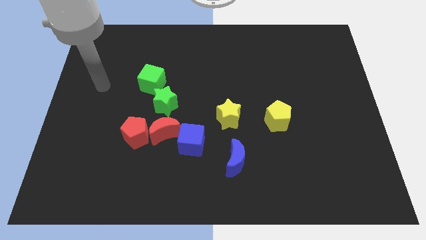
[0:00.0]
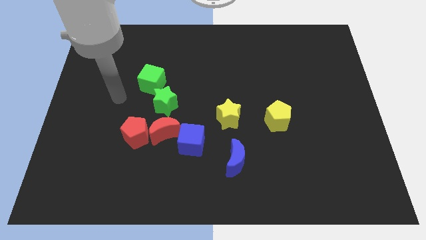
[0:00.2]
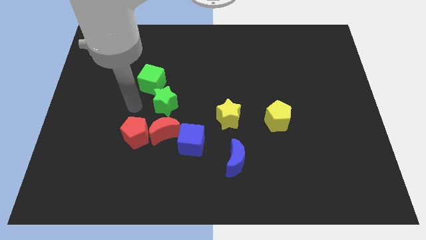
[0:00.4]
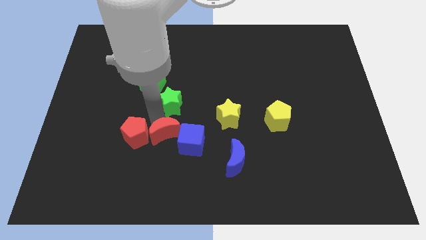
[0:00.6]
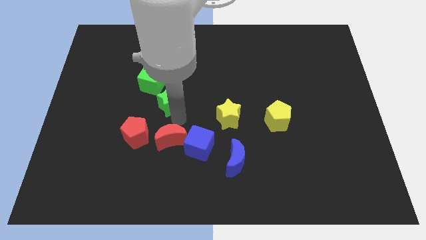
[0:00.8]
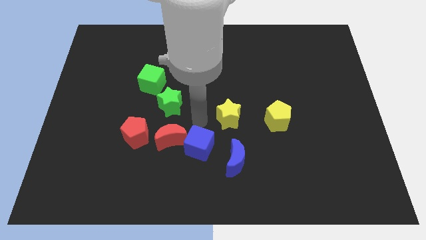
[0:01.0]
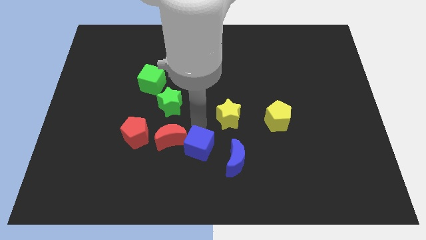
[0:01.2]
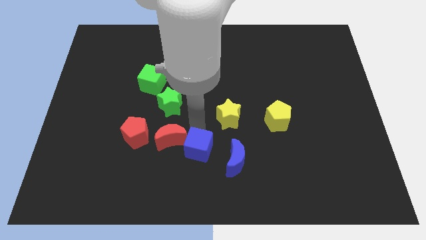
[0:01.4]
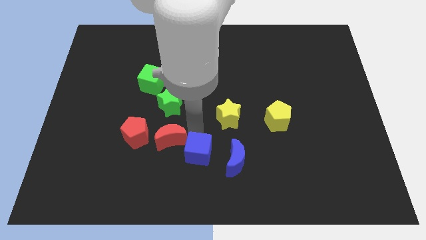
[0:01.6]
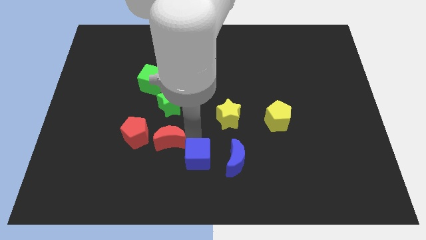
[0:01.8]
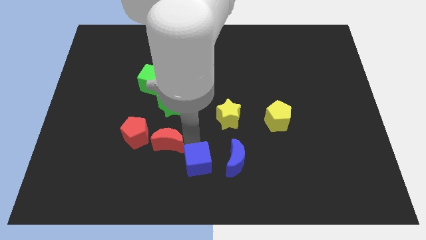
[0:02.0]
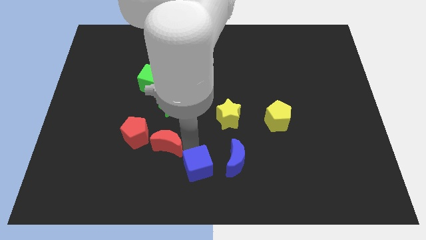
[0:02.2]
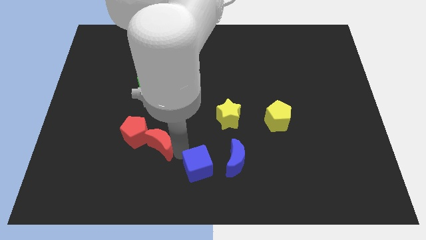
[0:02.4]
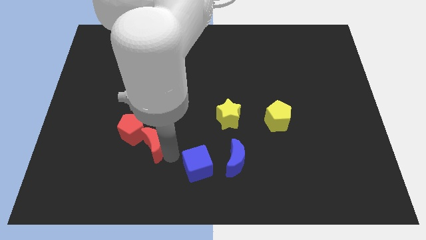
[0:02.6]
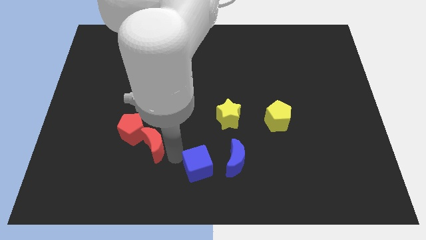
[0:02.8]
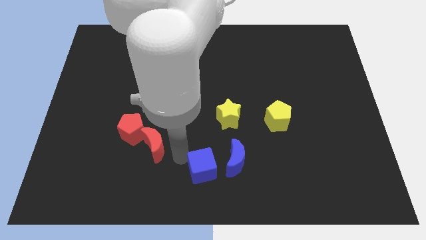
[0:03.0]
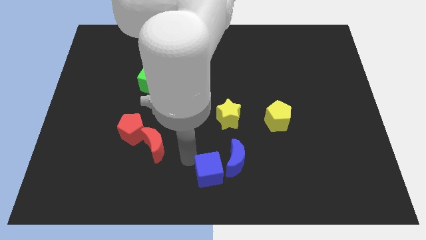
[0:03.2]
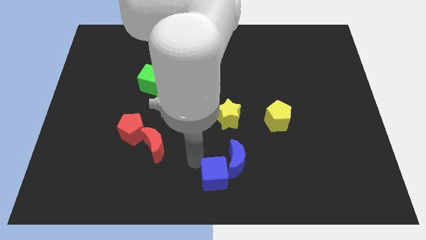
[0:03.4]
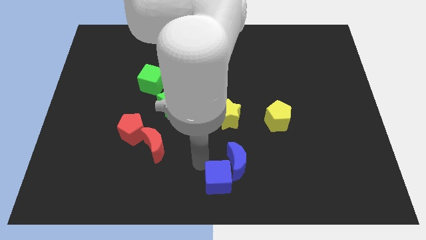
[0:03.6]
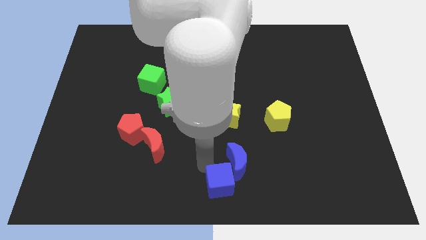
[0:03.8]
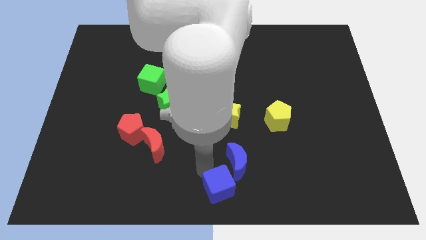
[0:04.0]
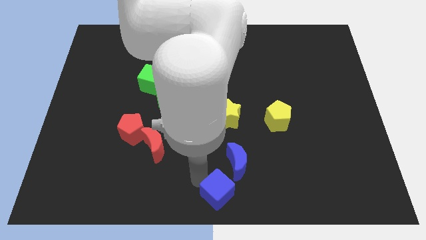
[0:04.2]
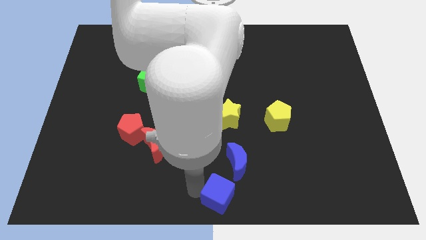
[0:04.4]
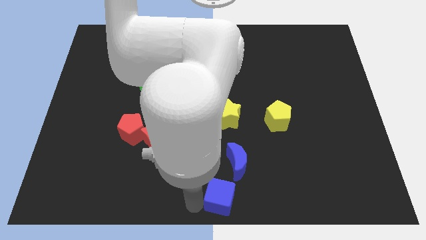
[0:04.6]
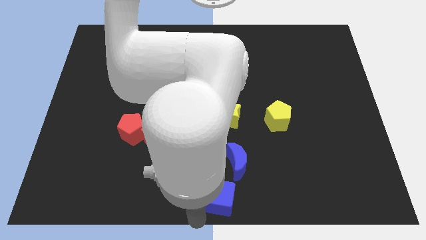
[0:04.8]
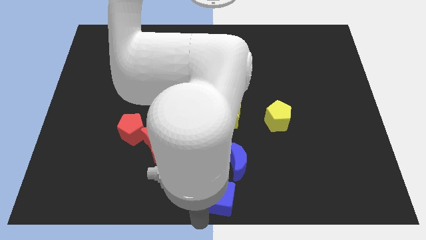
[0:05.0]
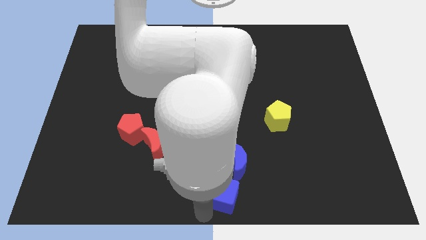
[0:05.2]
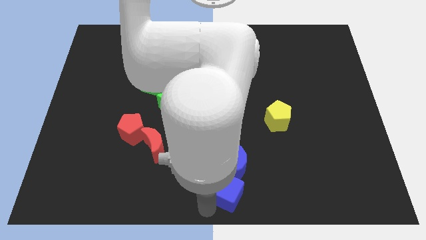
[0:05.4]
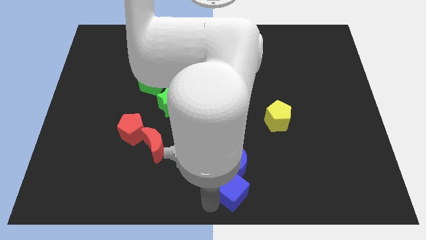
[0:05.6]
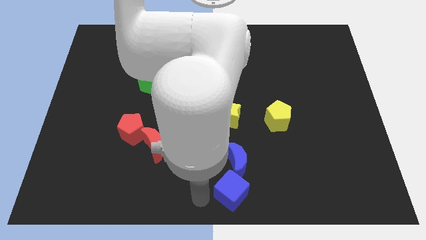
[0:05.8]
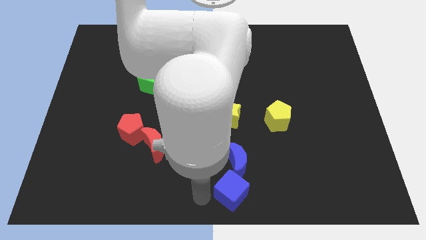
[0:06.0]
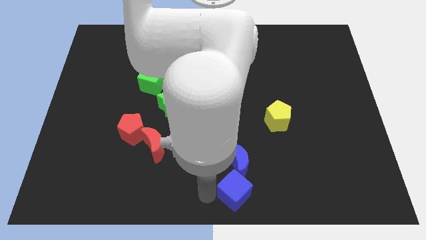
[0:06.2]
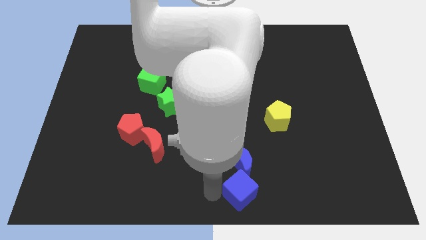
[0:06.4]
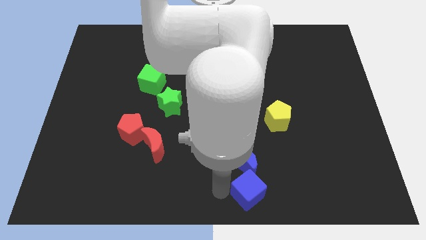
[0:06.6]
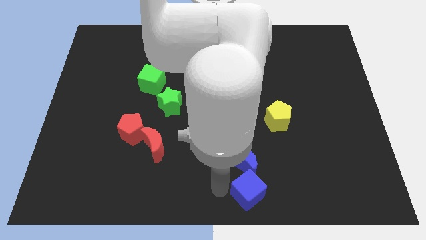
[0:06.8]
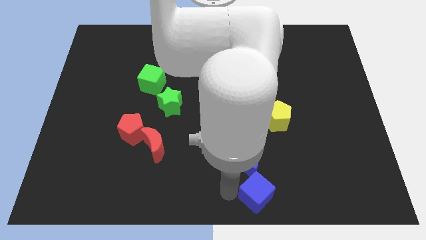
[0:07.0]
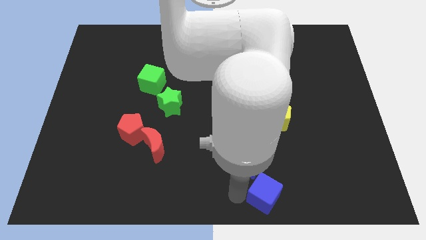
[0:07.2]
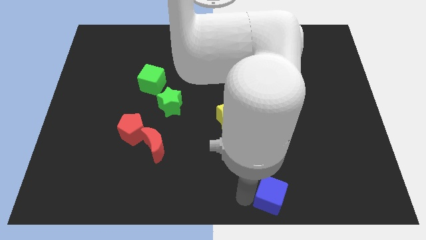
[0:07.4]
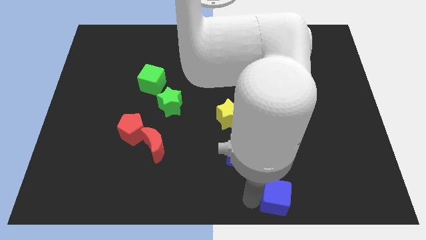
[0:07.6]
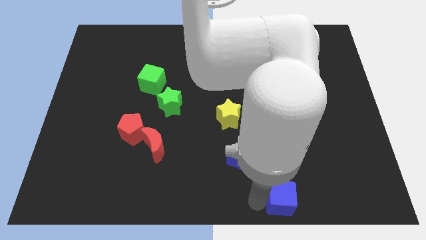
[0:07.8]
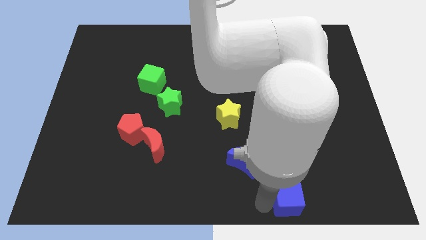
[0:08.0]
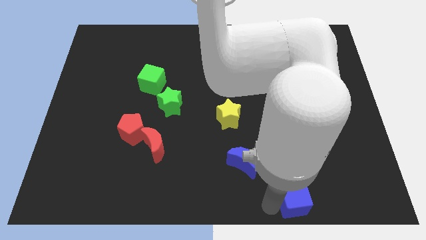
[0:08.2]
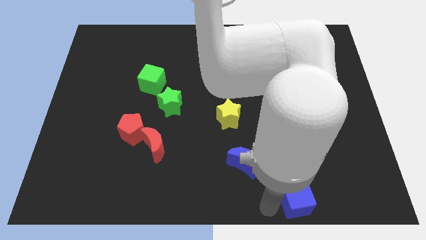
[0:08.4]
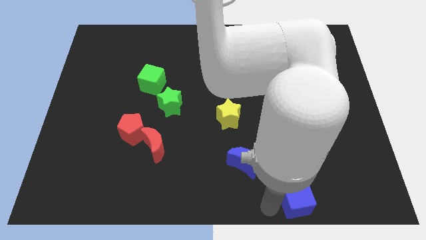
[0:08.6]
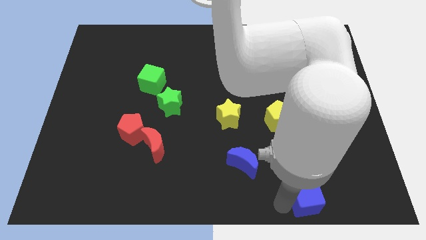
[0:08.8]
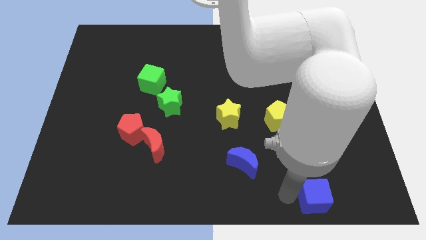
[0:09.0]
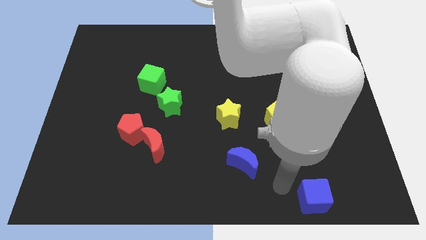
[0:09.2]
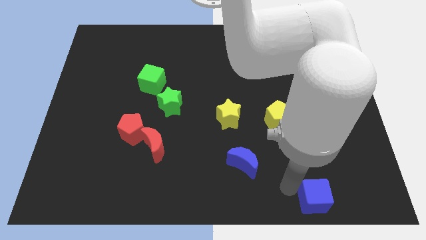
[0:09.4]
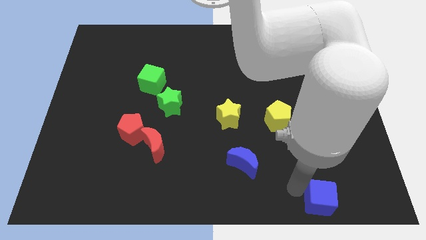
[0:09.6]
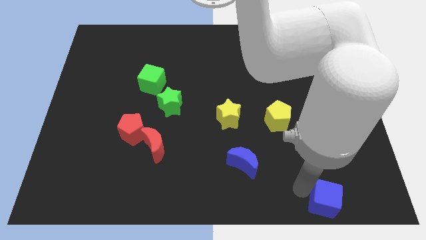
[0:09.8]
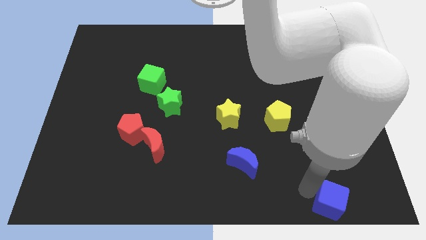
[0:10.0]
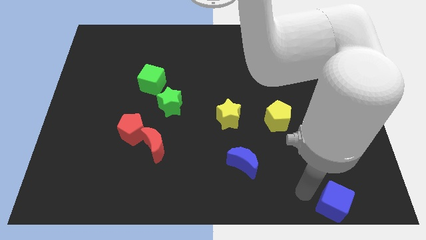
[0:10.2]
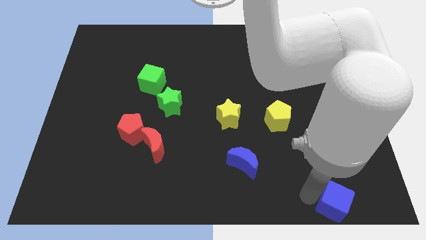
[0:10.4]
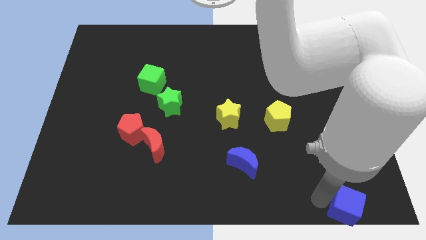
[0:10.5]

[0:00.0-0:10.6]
put the blue cube to the bottom right of the board
